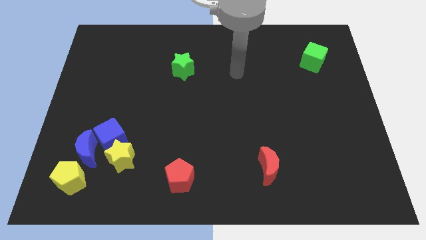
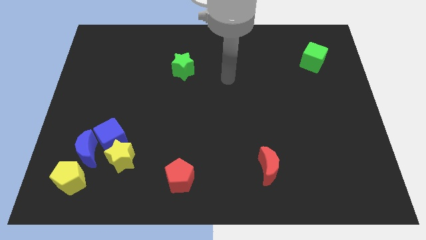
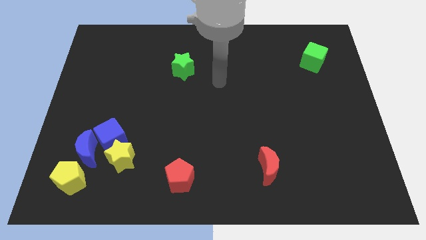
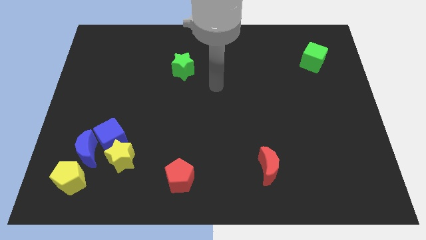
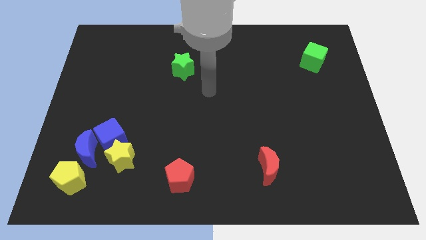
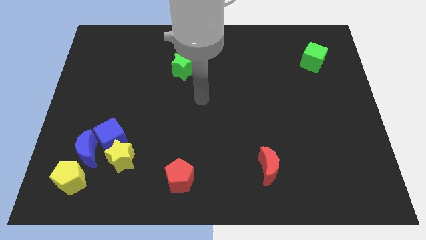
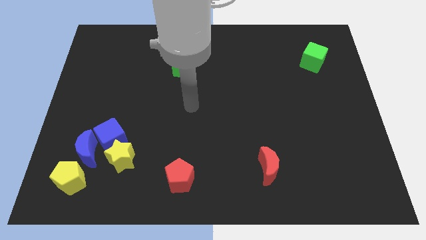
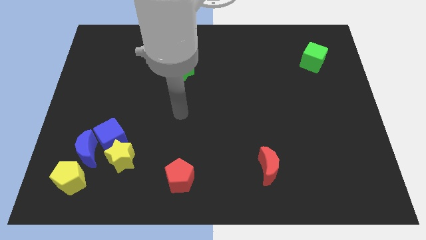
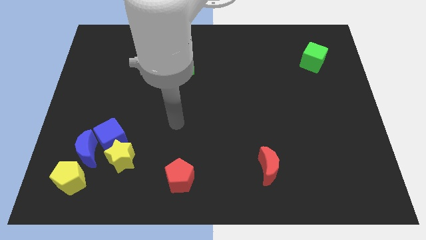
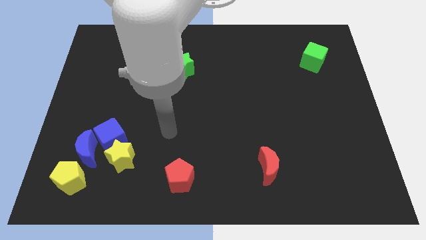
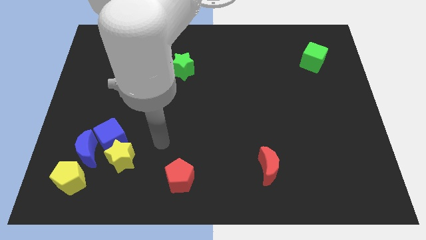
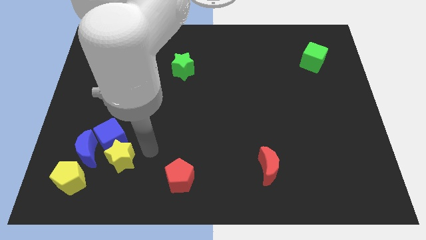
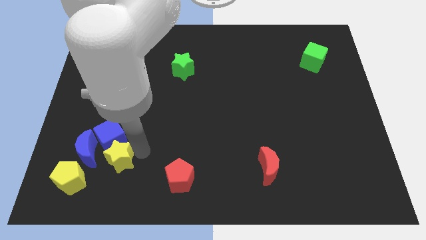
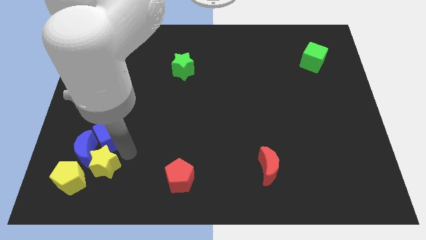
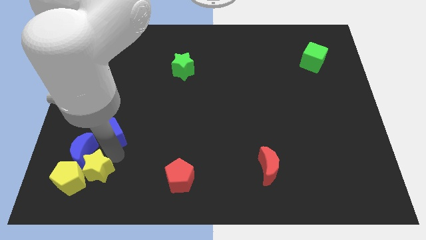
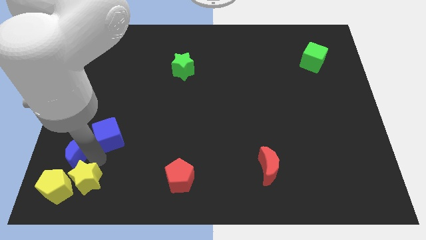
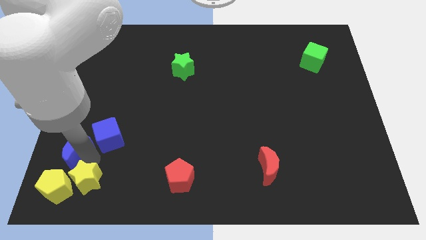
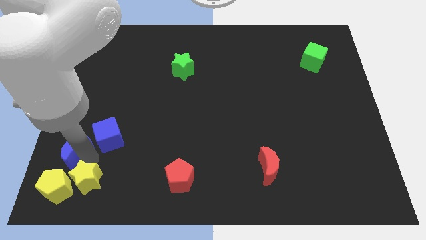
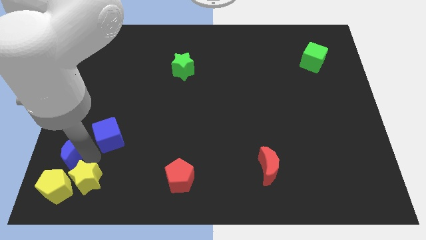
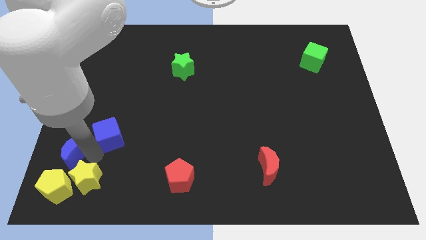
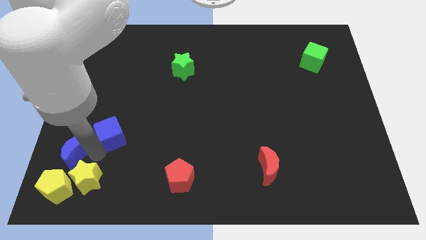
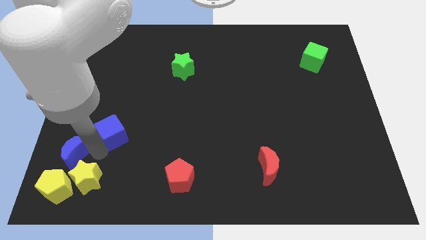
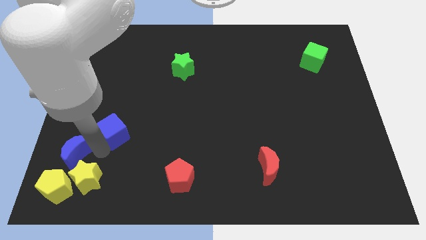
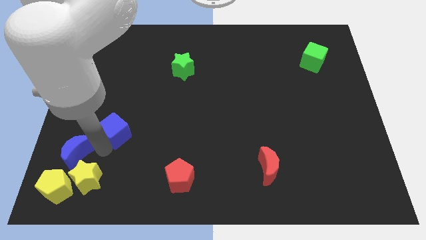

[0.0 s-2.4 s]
move the blue cube away from the blue moon and yellow star

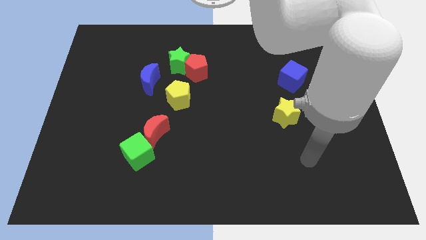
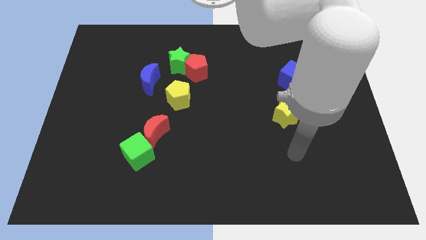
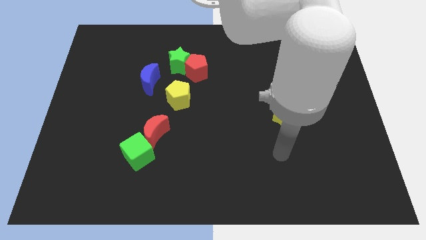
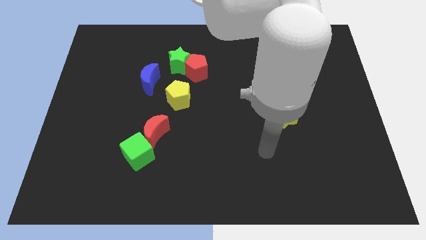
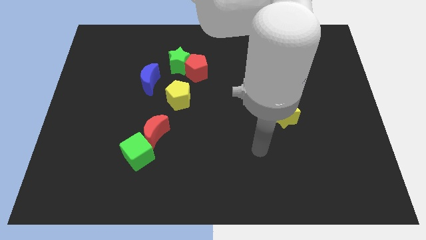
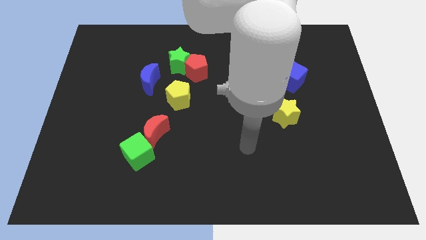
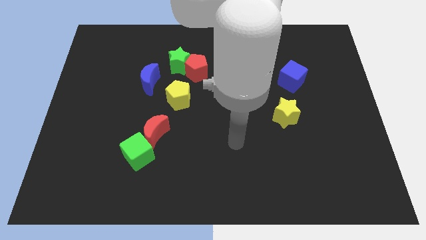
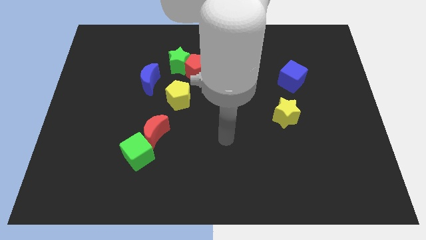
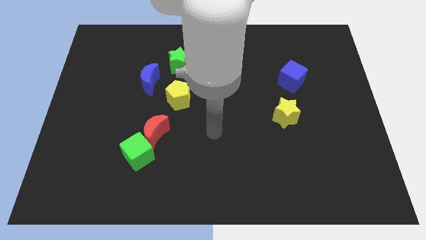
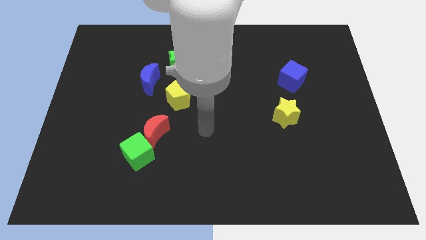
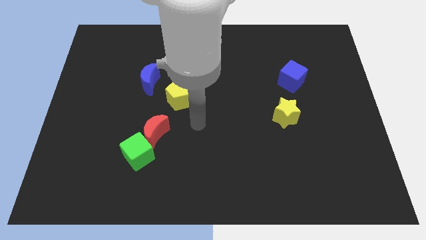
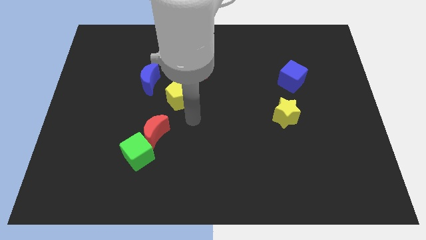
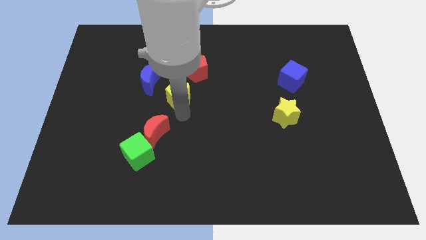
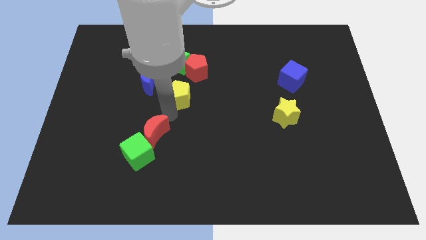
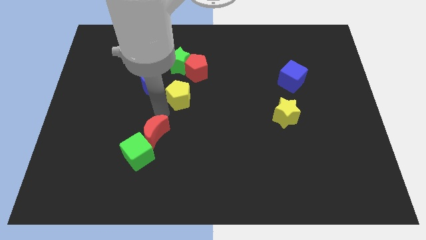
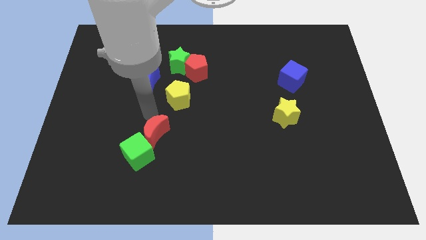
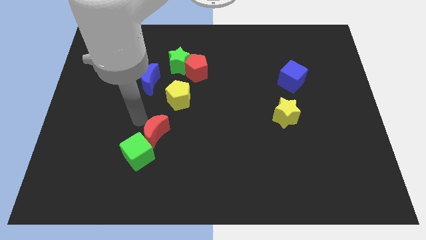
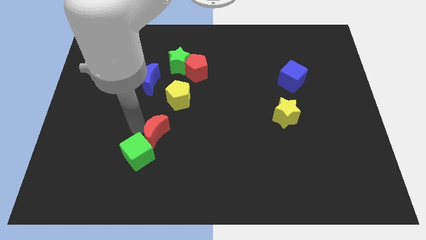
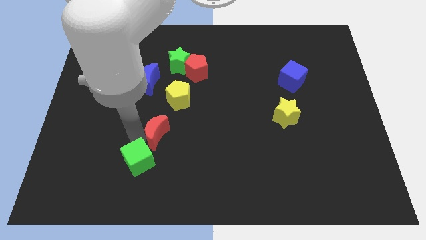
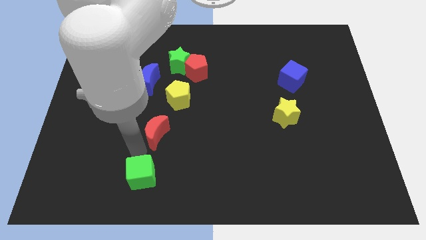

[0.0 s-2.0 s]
move the red moon away from the green cube

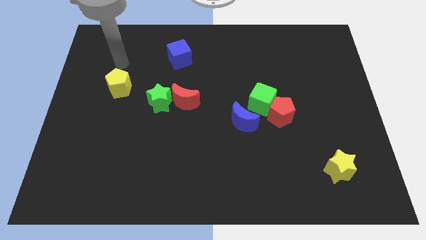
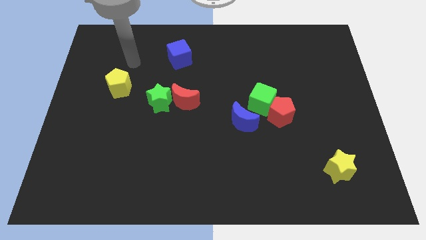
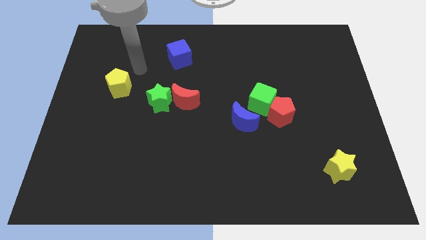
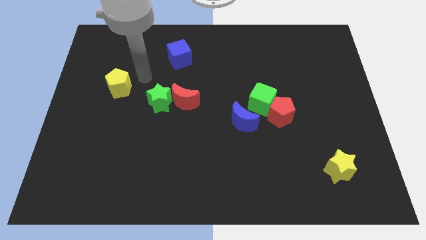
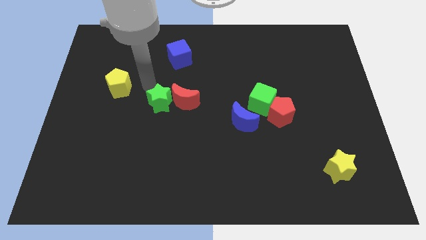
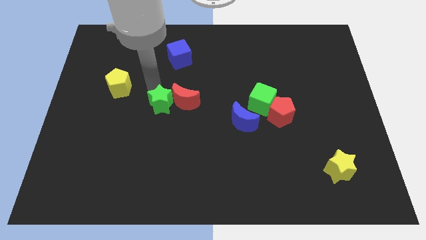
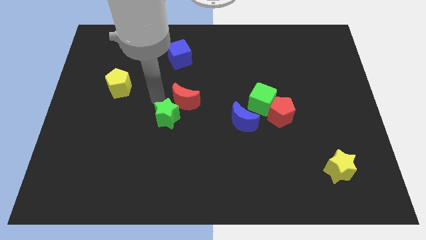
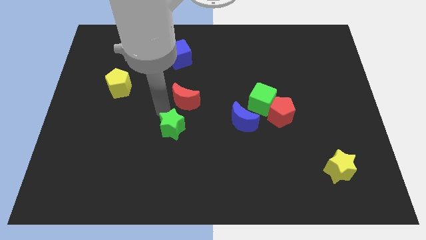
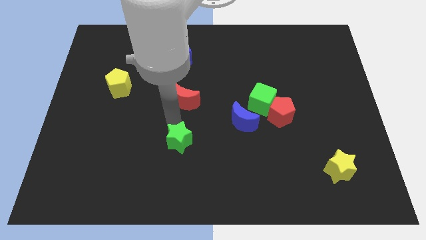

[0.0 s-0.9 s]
separate the red moon from the green star

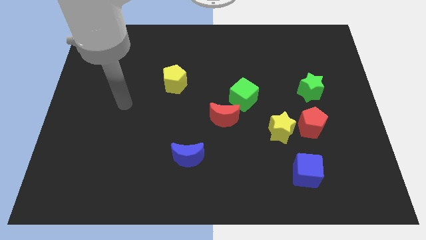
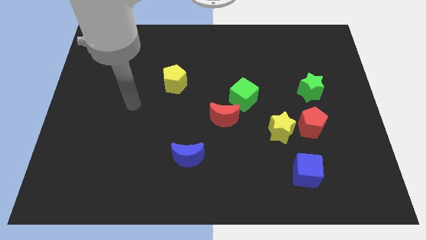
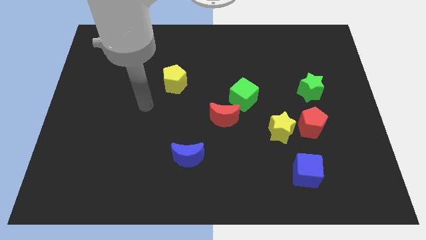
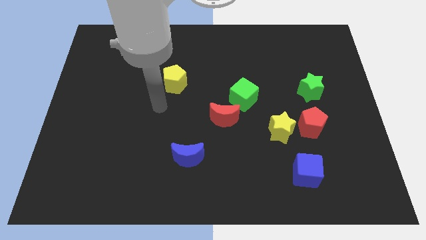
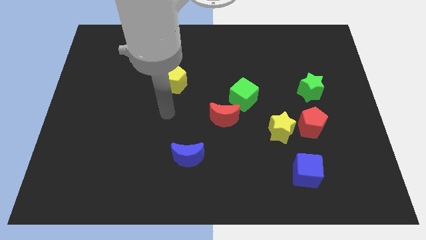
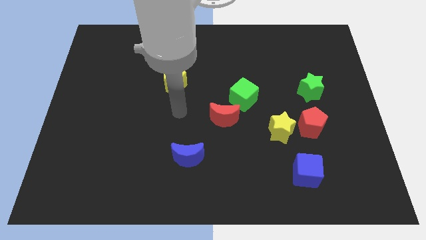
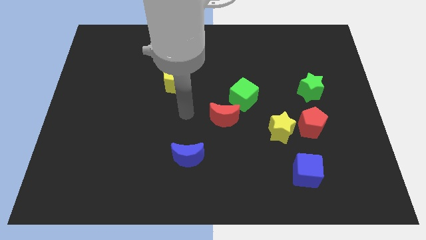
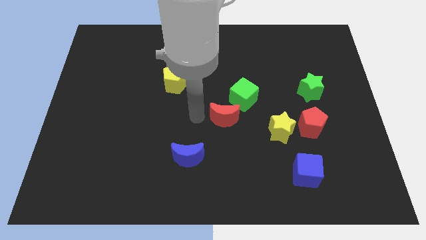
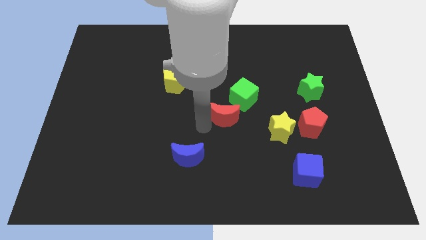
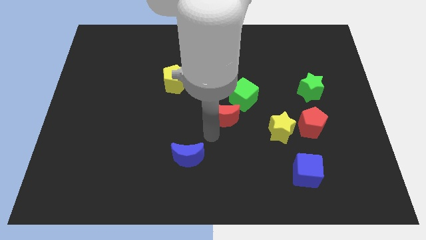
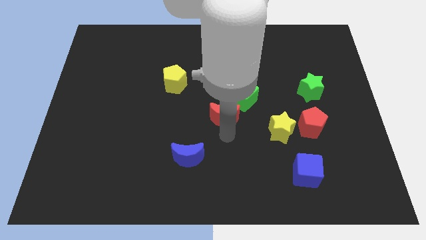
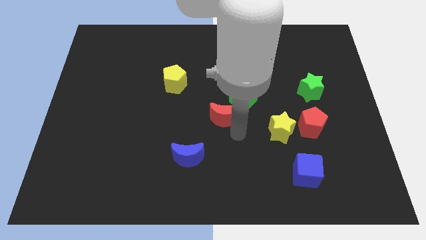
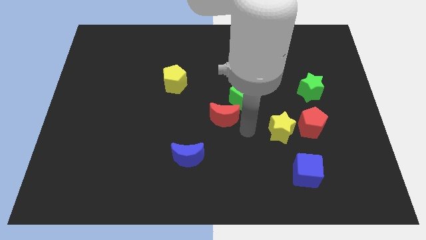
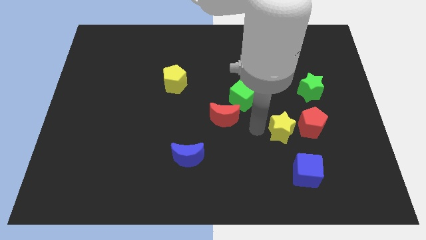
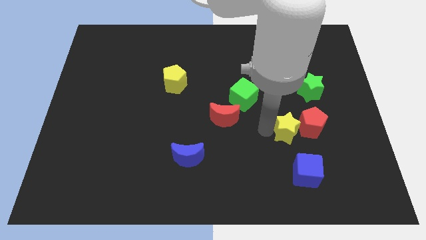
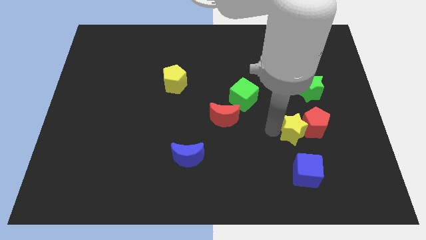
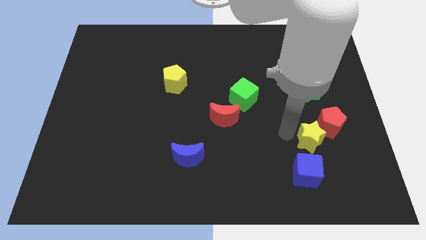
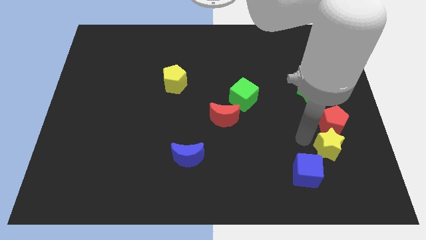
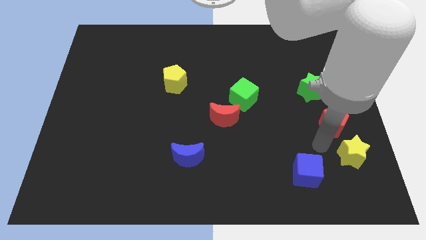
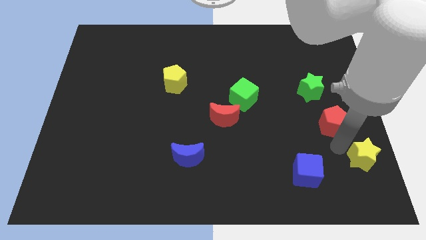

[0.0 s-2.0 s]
move the red pentagon away from the yellow star

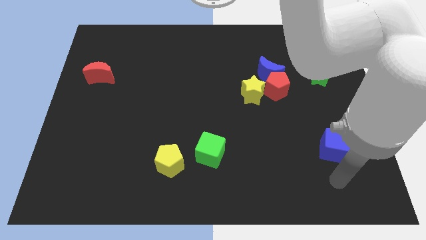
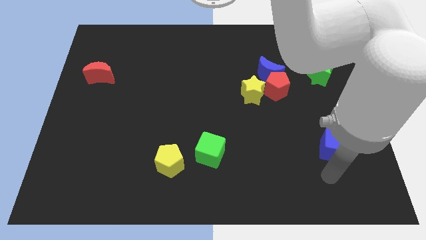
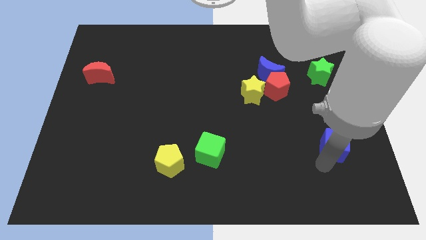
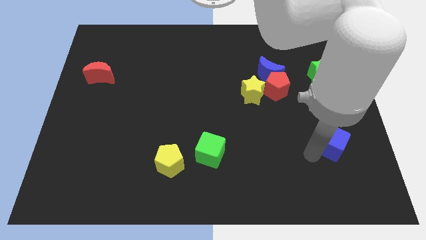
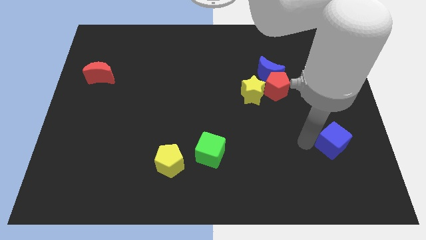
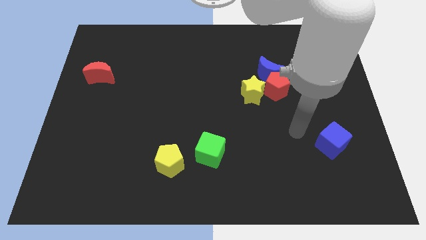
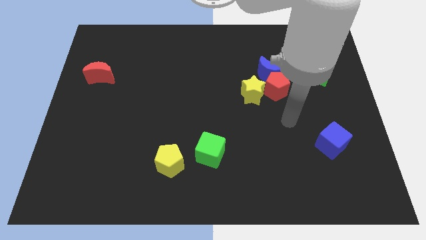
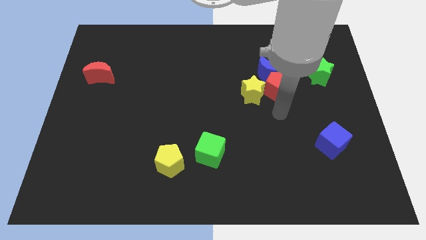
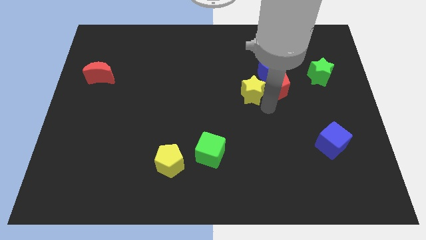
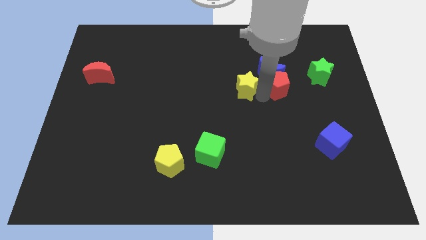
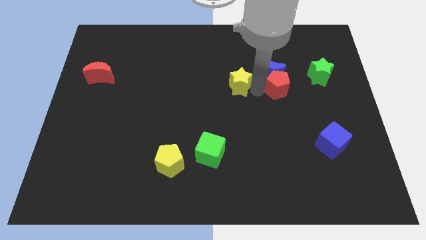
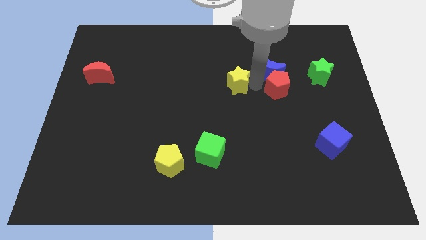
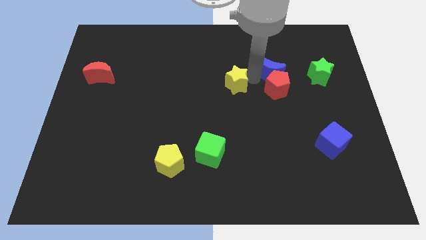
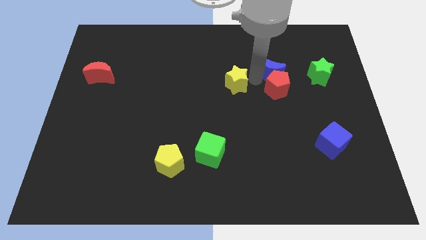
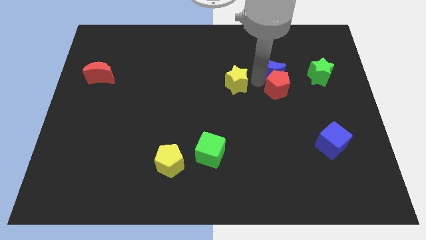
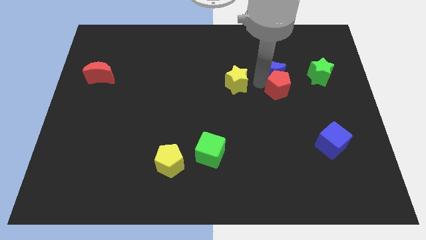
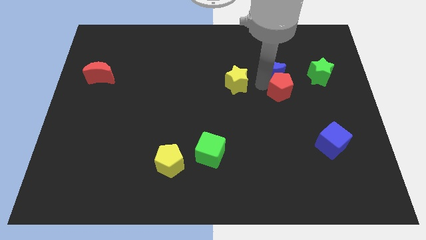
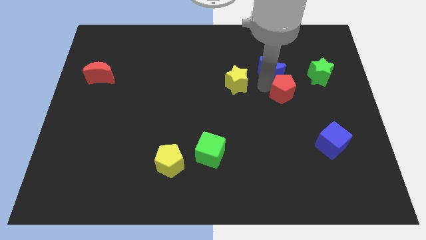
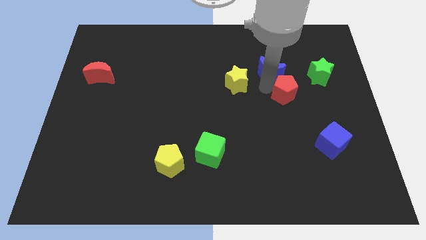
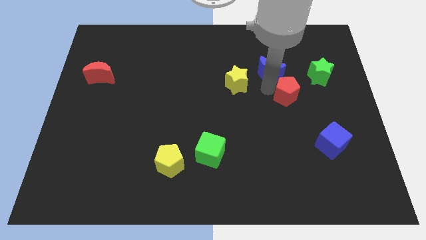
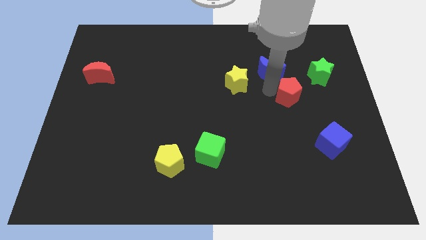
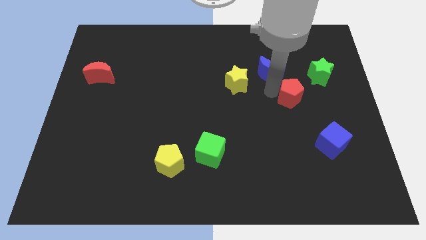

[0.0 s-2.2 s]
pull the red pentagon apart from the blue moon and yellow star
